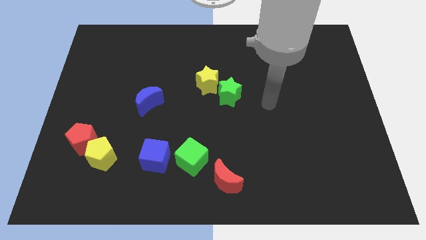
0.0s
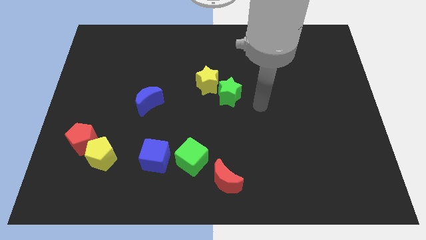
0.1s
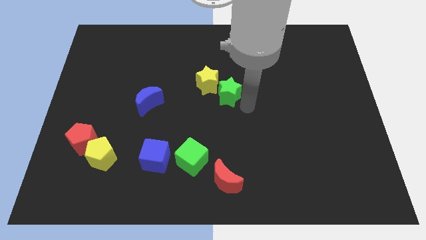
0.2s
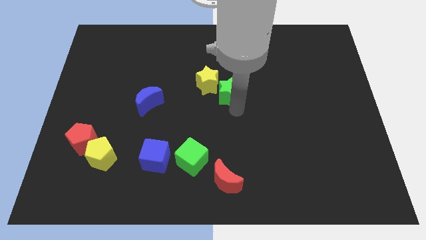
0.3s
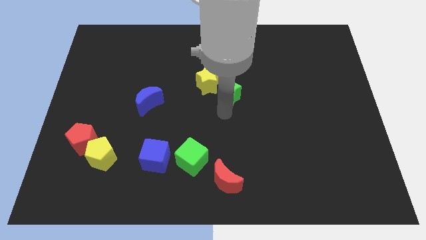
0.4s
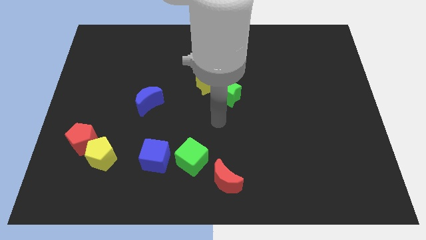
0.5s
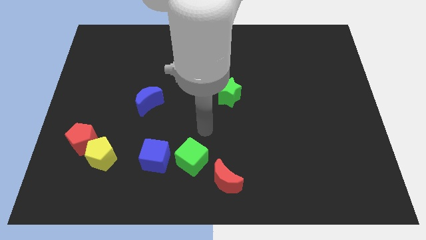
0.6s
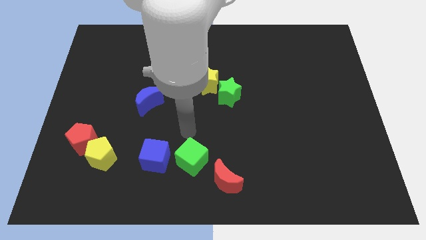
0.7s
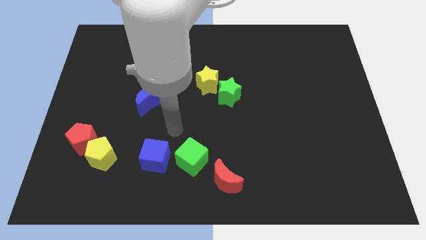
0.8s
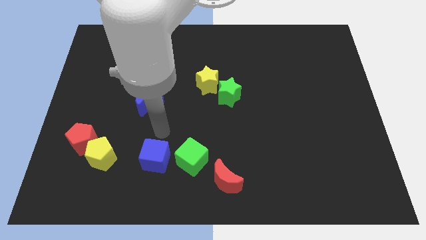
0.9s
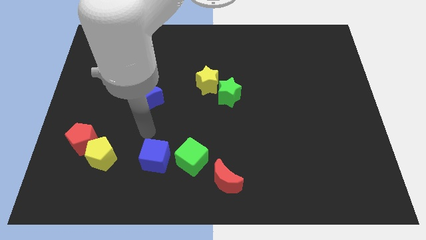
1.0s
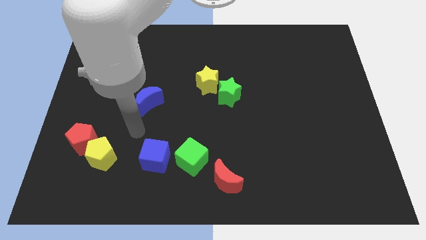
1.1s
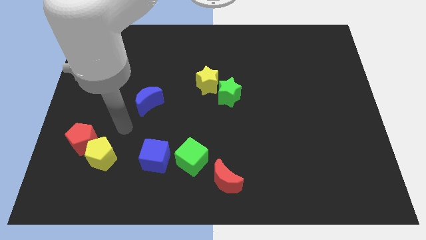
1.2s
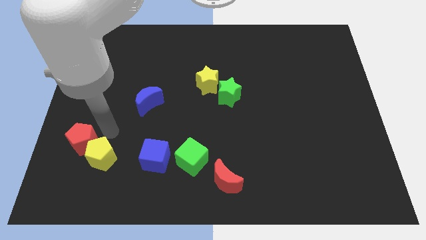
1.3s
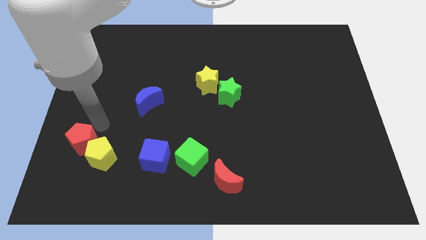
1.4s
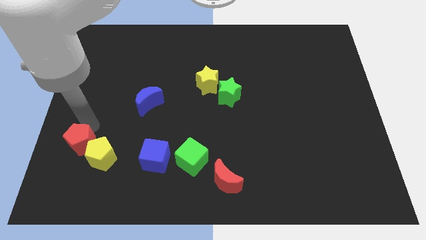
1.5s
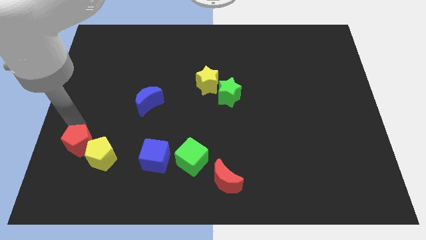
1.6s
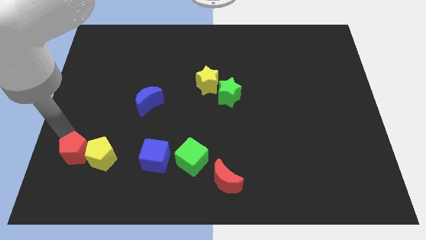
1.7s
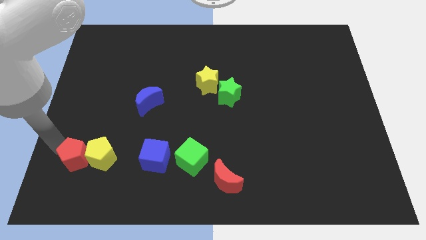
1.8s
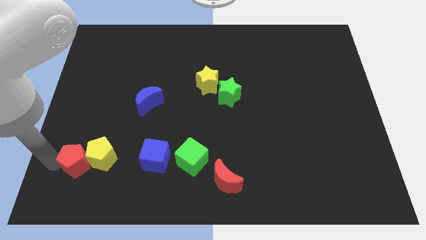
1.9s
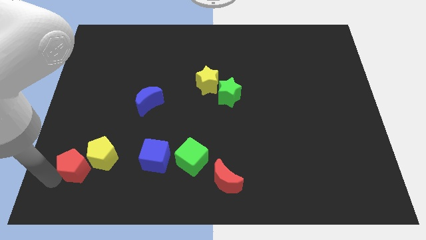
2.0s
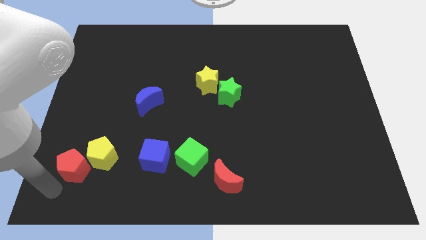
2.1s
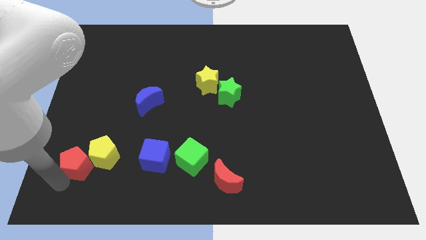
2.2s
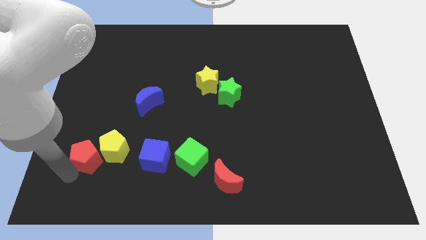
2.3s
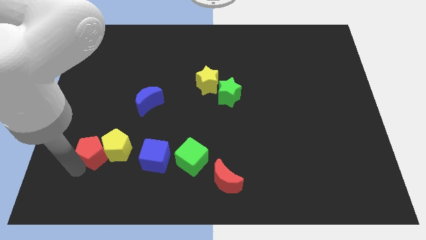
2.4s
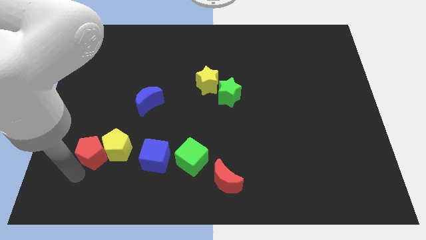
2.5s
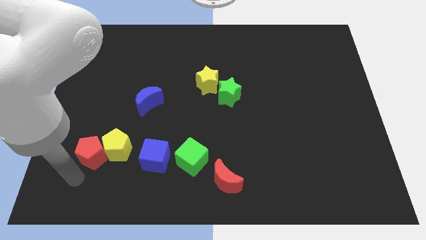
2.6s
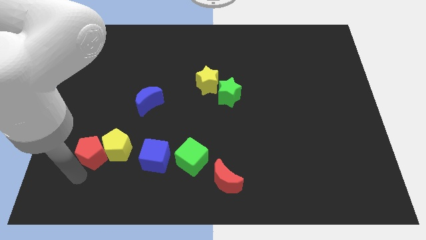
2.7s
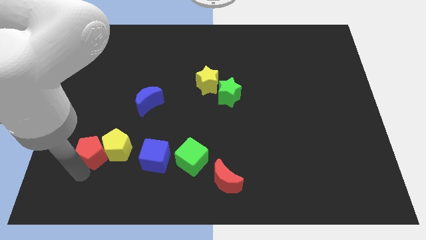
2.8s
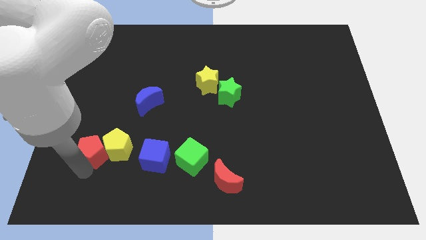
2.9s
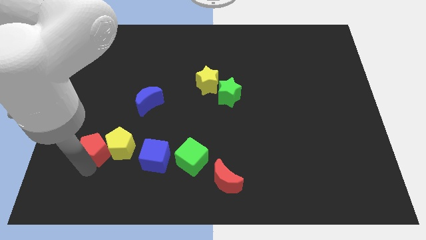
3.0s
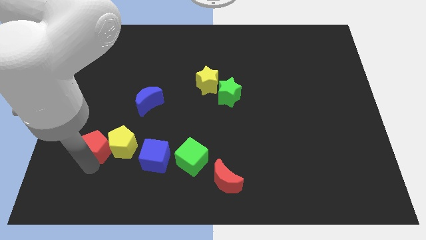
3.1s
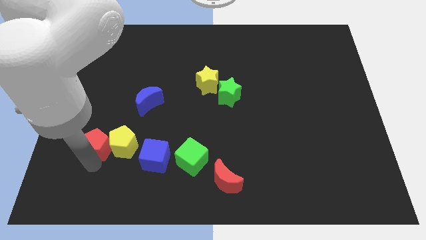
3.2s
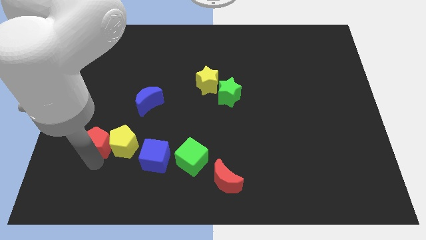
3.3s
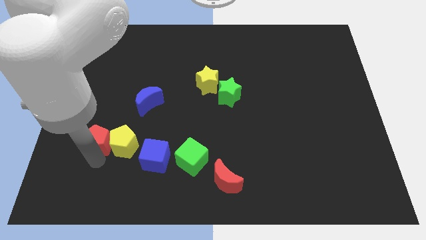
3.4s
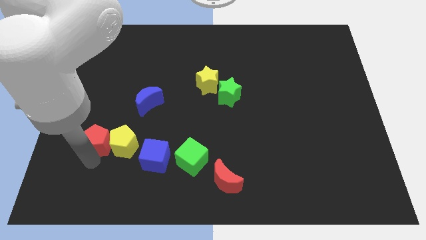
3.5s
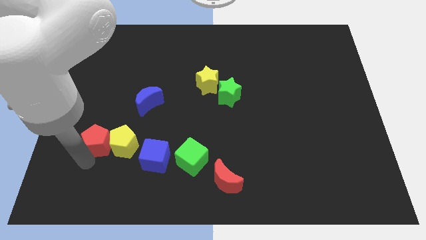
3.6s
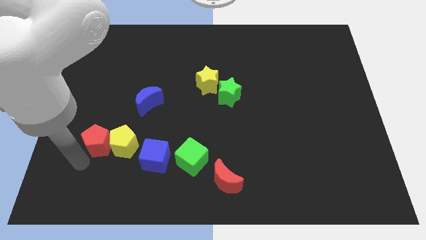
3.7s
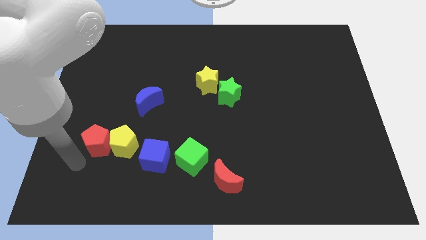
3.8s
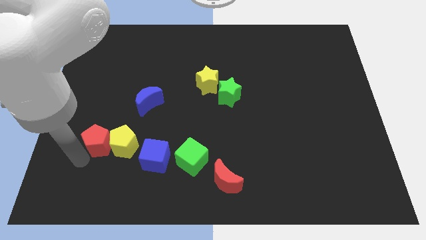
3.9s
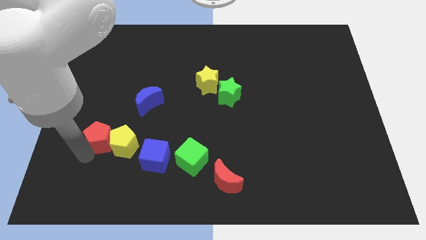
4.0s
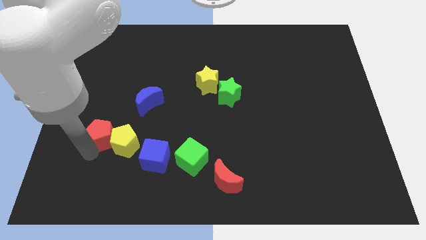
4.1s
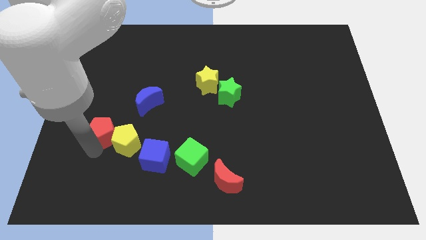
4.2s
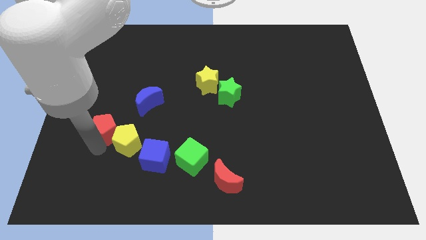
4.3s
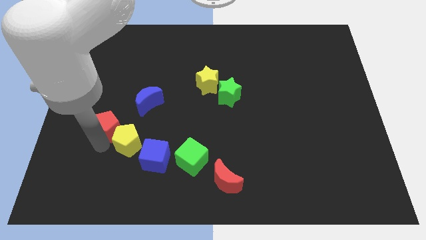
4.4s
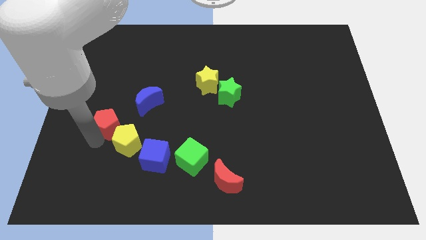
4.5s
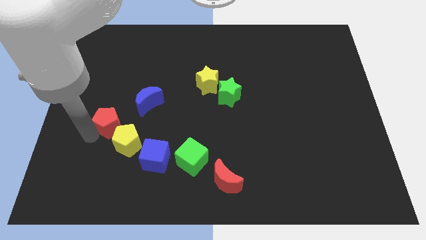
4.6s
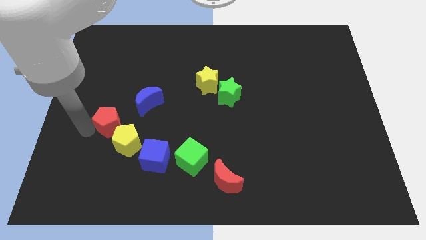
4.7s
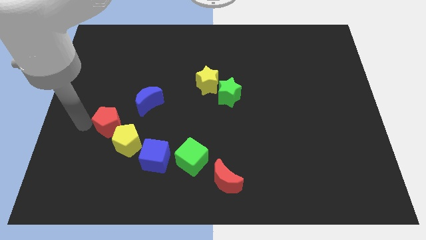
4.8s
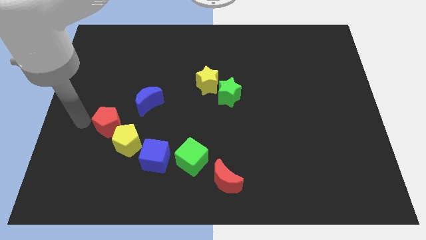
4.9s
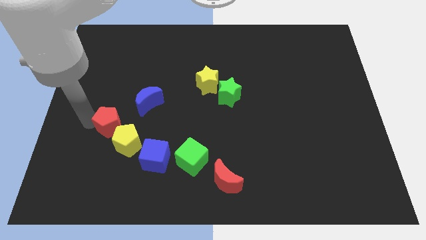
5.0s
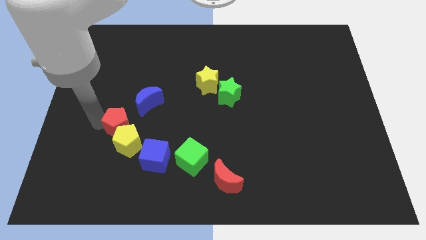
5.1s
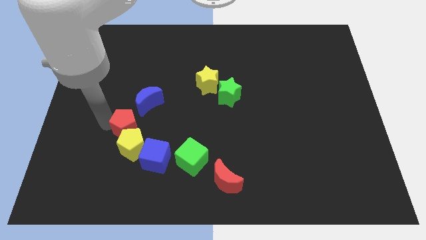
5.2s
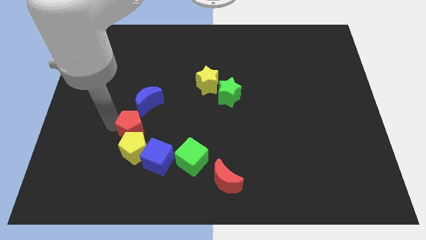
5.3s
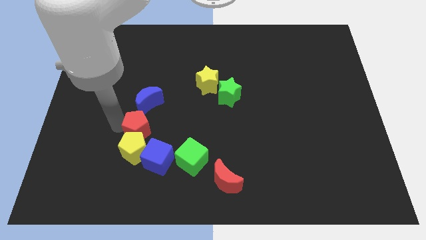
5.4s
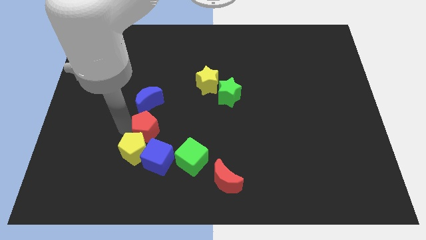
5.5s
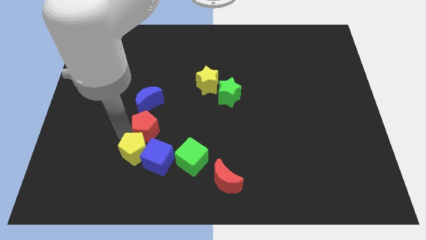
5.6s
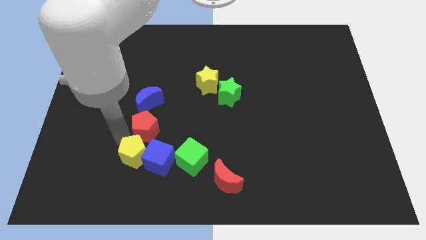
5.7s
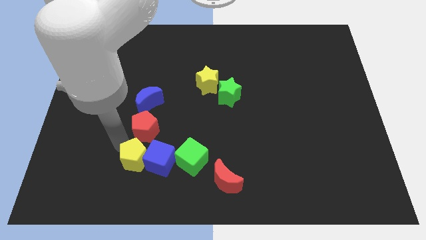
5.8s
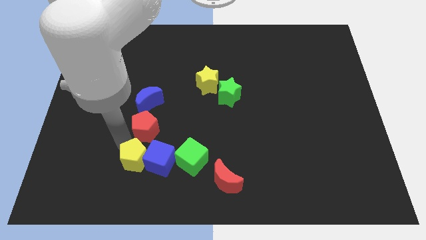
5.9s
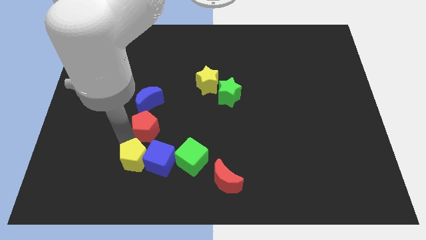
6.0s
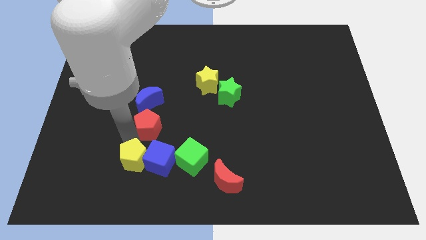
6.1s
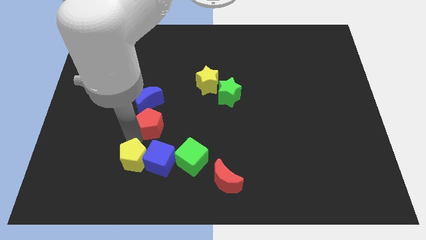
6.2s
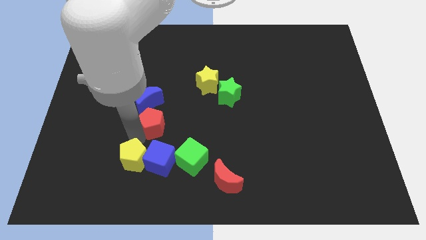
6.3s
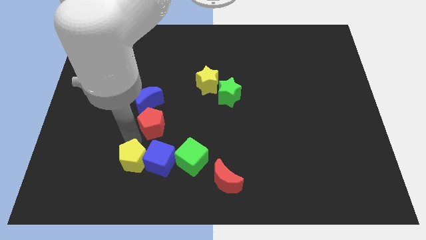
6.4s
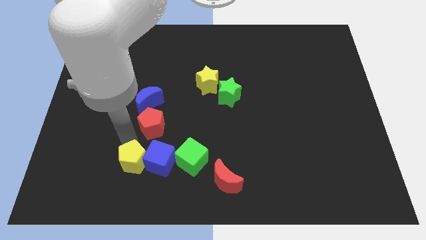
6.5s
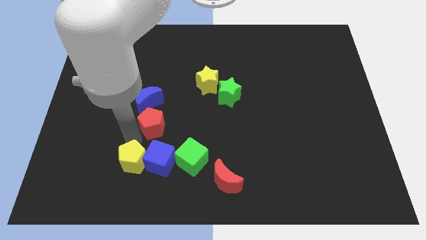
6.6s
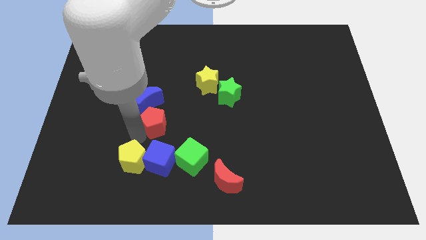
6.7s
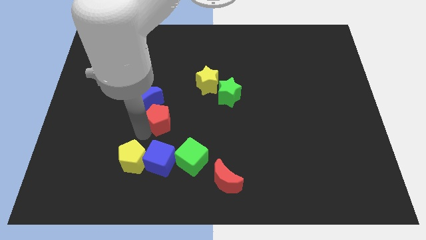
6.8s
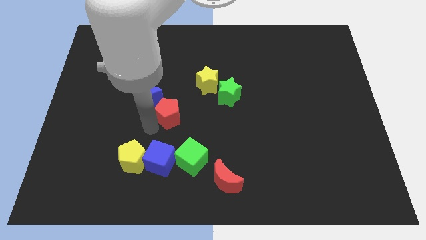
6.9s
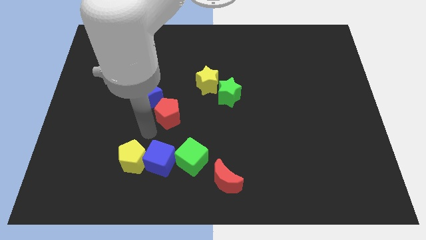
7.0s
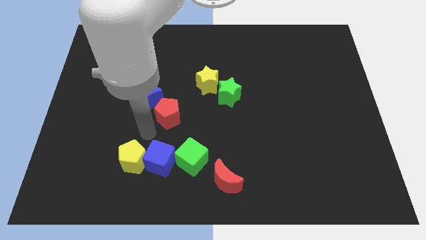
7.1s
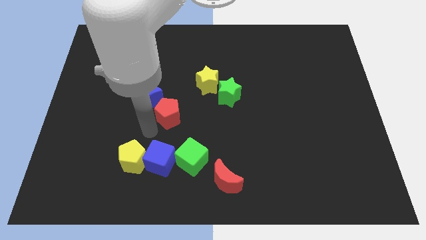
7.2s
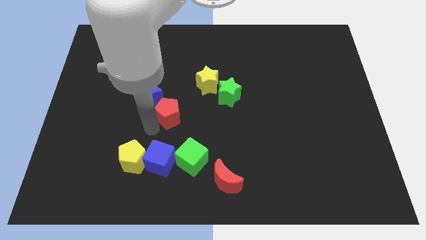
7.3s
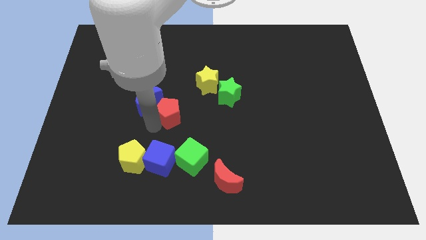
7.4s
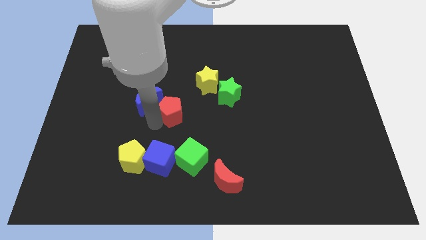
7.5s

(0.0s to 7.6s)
slide the red pentagon to the bottom left of the yellow star

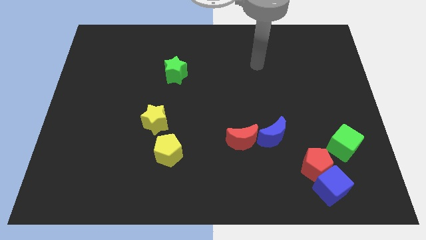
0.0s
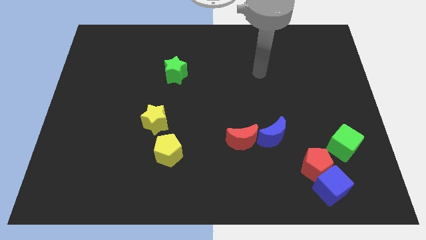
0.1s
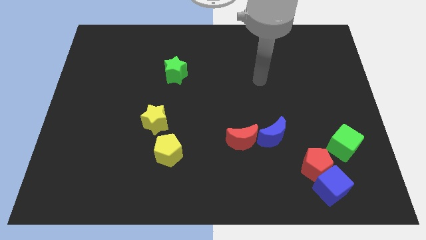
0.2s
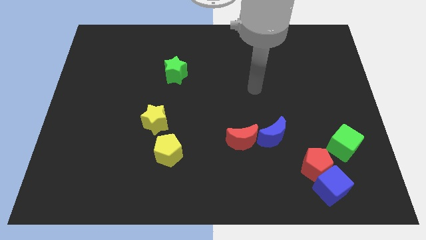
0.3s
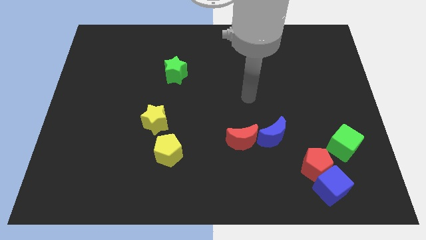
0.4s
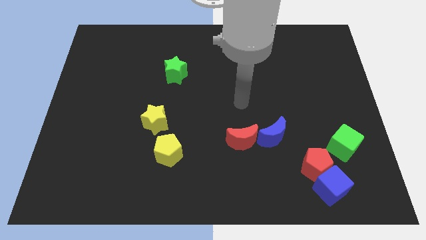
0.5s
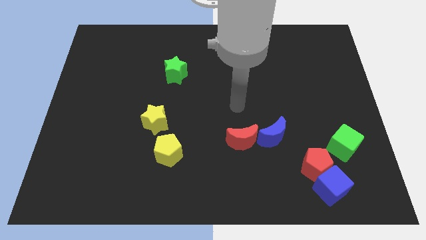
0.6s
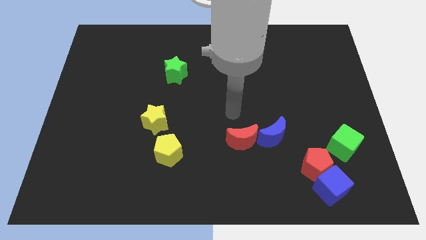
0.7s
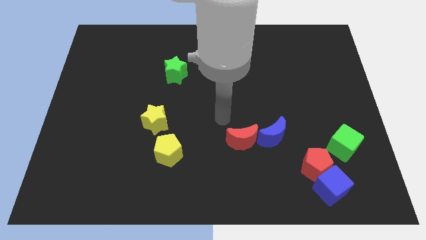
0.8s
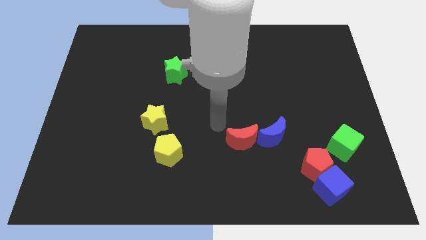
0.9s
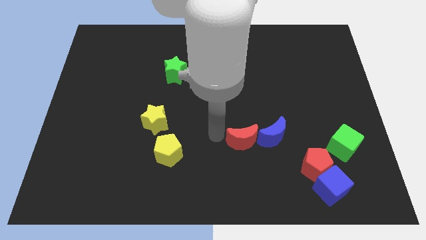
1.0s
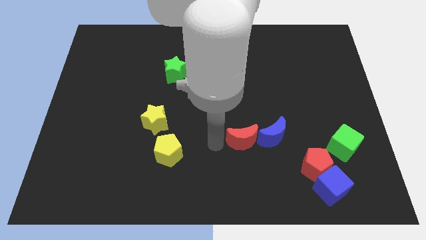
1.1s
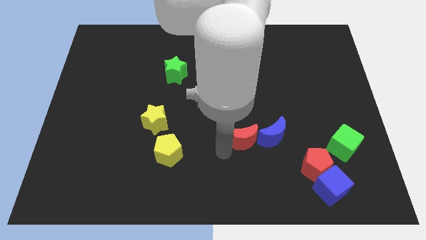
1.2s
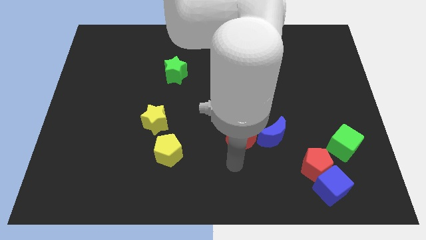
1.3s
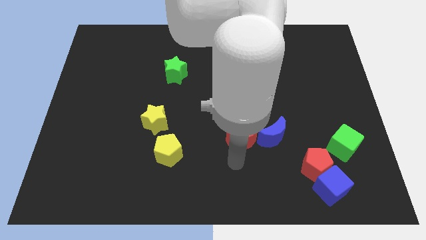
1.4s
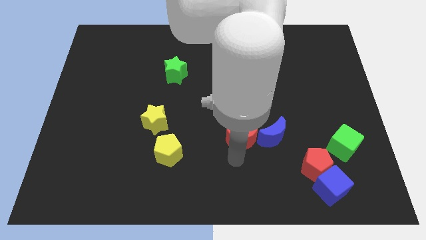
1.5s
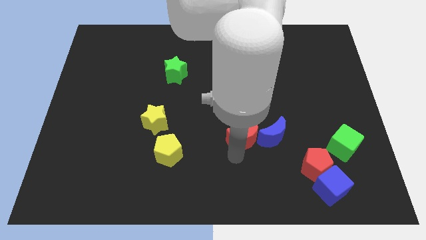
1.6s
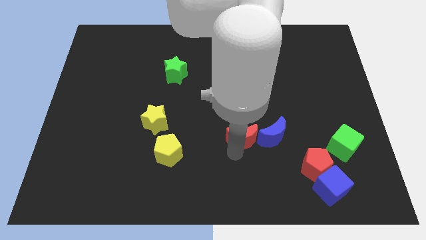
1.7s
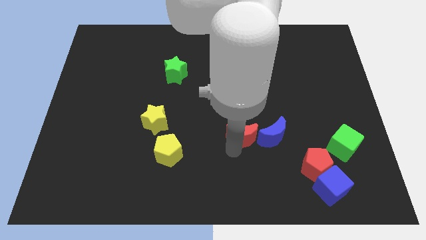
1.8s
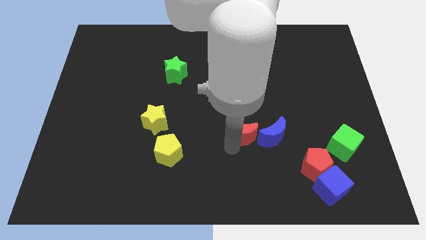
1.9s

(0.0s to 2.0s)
put the red moon to the top left side of the blue moon
